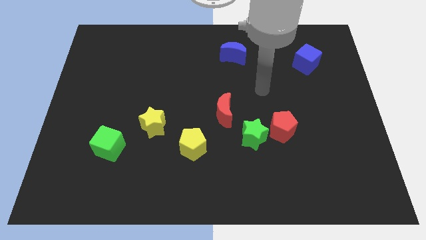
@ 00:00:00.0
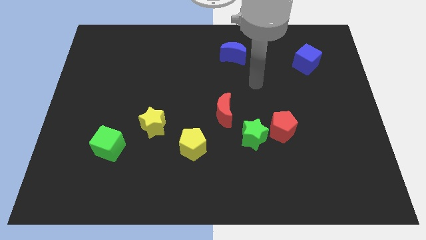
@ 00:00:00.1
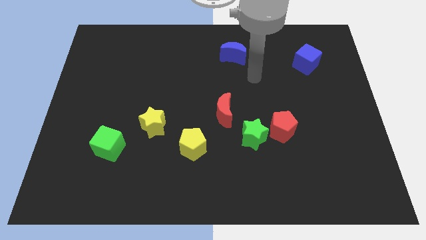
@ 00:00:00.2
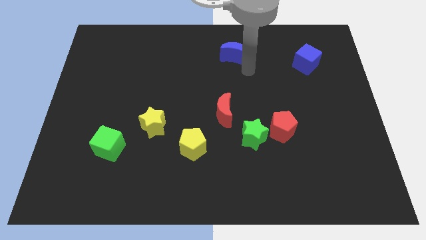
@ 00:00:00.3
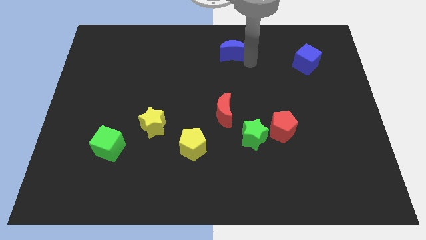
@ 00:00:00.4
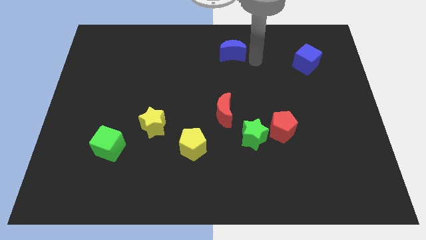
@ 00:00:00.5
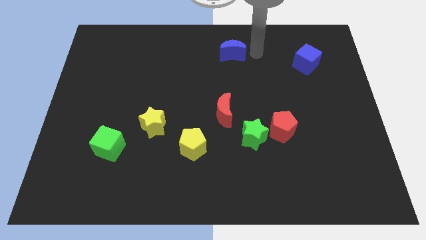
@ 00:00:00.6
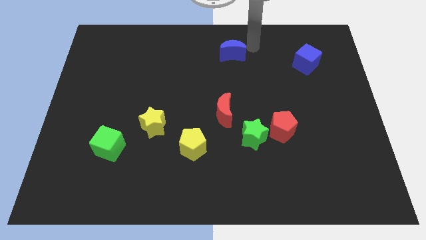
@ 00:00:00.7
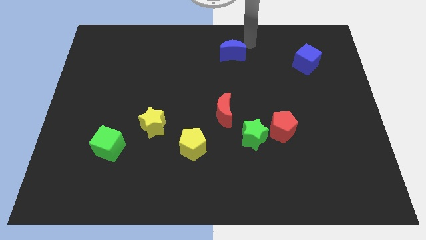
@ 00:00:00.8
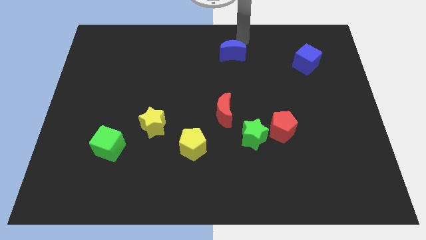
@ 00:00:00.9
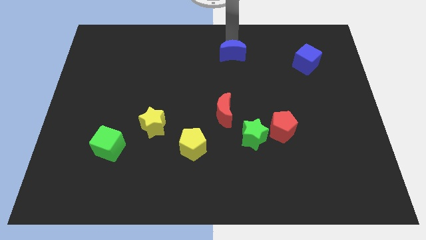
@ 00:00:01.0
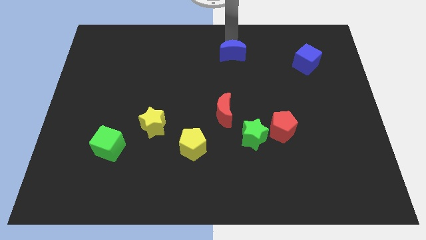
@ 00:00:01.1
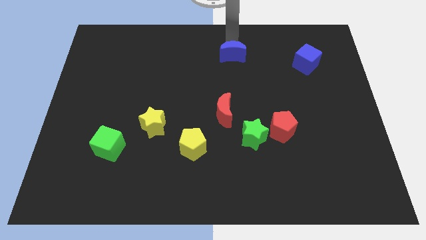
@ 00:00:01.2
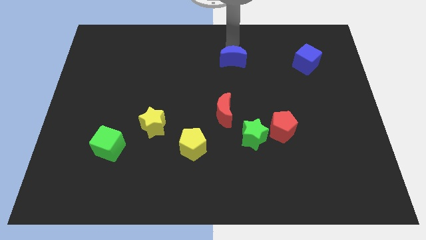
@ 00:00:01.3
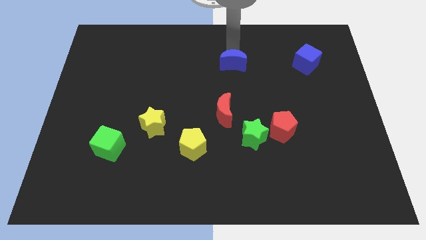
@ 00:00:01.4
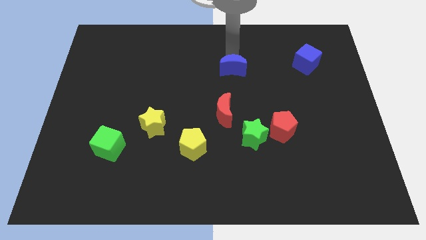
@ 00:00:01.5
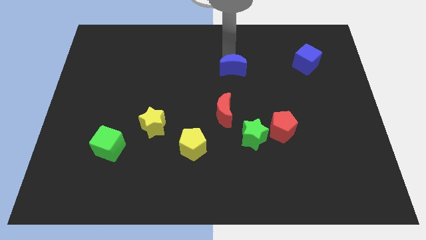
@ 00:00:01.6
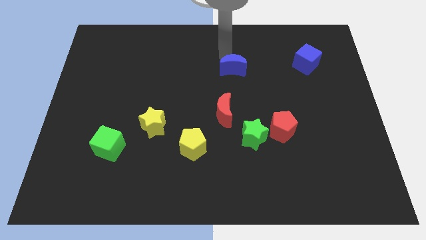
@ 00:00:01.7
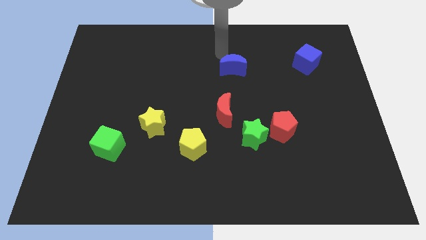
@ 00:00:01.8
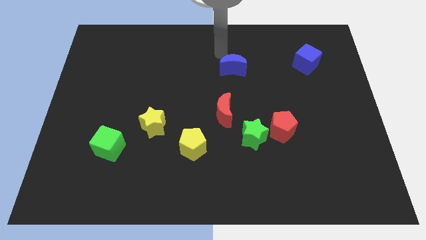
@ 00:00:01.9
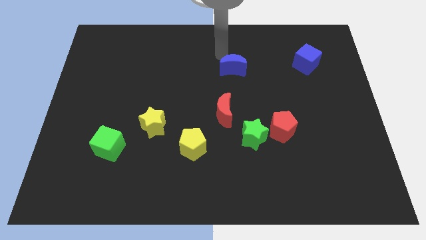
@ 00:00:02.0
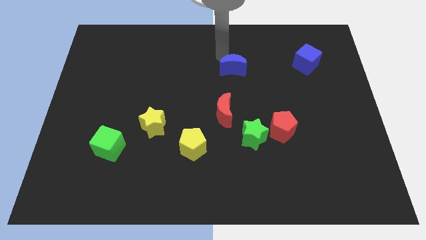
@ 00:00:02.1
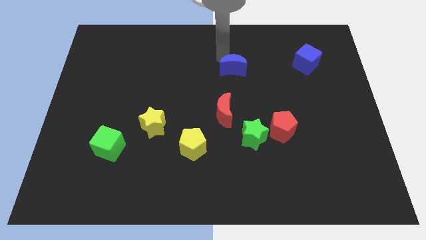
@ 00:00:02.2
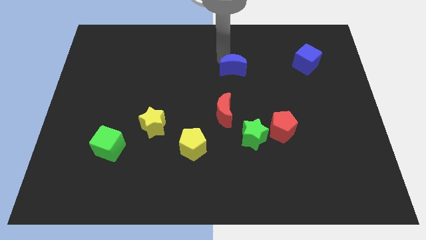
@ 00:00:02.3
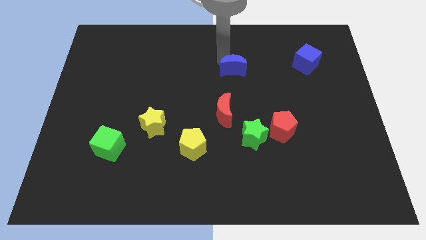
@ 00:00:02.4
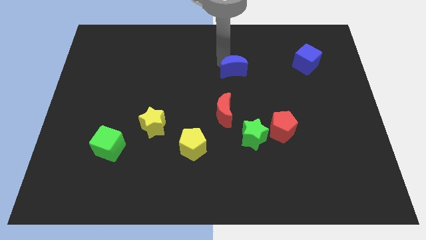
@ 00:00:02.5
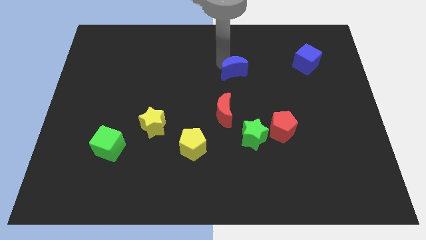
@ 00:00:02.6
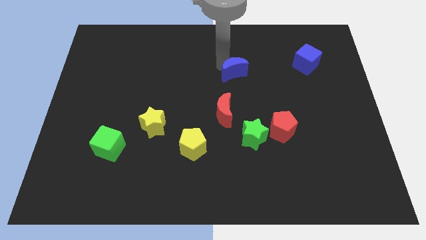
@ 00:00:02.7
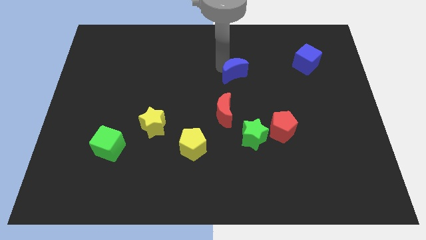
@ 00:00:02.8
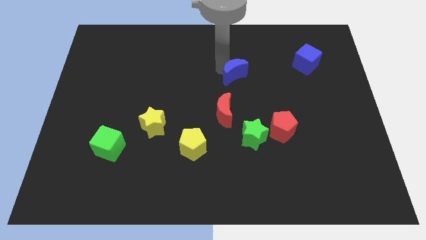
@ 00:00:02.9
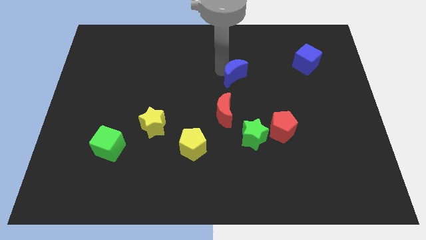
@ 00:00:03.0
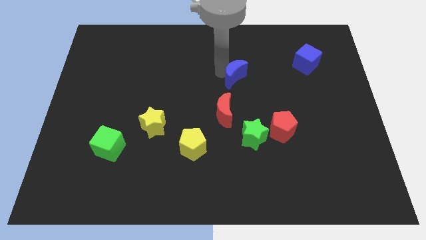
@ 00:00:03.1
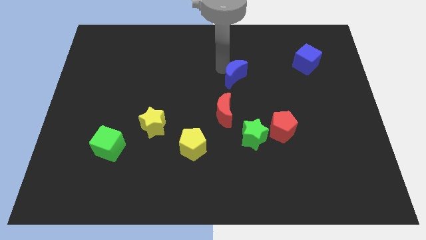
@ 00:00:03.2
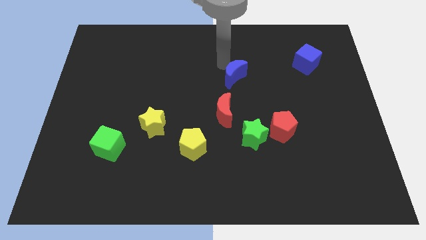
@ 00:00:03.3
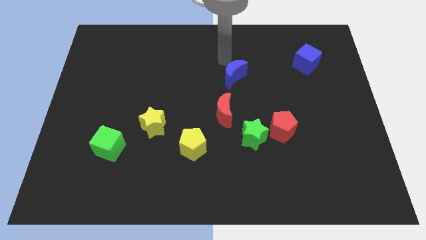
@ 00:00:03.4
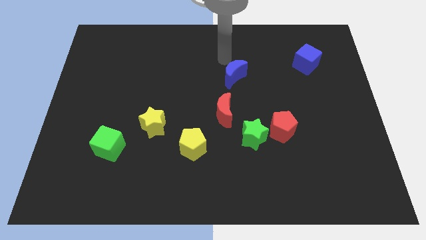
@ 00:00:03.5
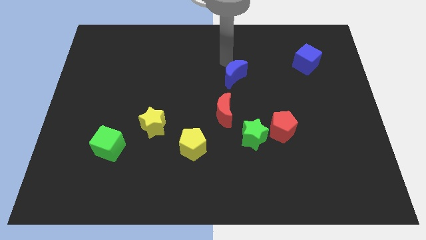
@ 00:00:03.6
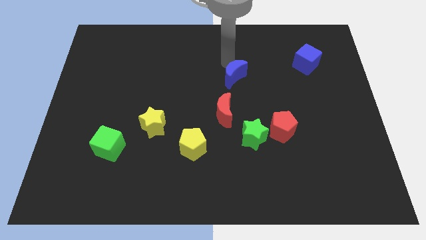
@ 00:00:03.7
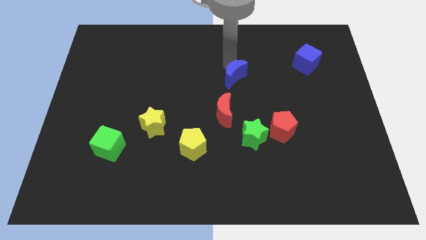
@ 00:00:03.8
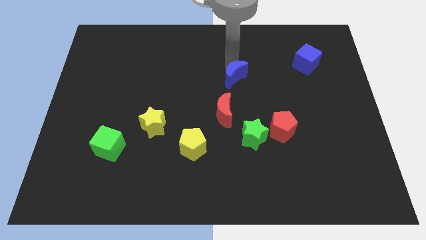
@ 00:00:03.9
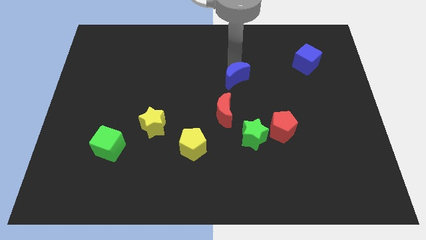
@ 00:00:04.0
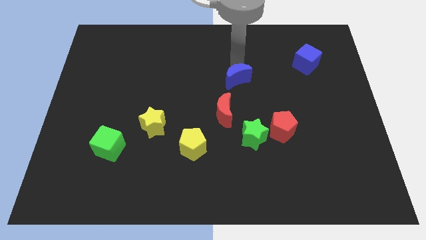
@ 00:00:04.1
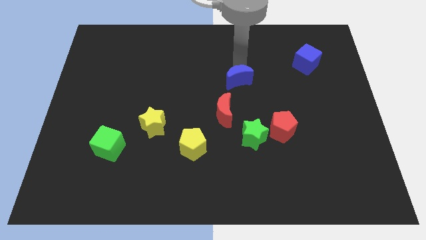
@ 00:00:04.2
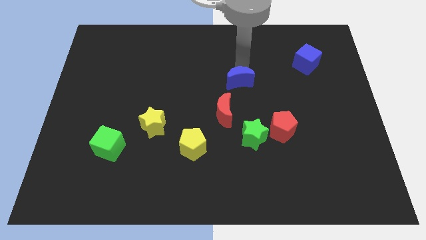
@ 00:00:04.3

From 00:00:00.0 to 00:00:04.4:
slide the blue moon diagonally up and to the right of the red moon

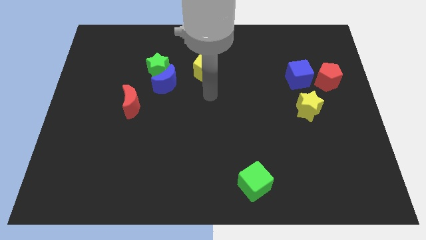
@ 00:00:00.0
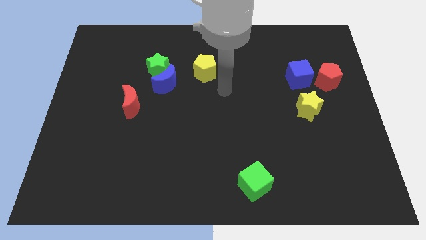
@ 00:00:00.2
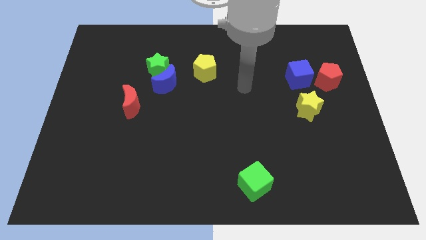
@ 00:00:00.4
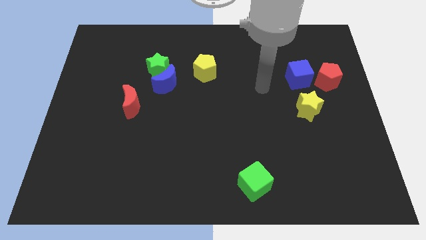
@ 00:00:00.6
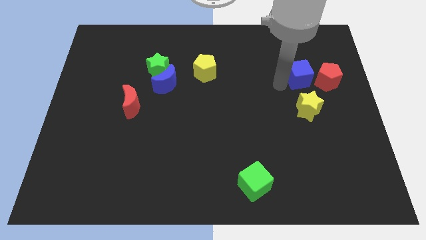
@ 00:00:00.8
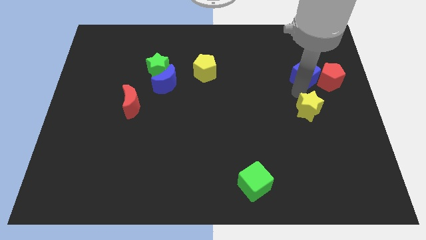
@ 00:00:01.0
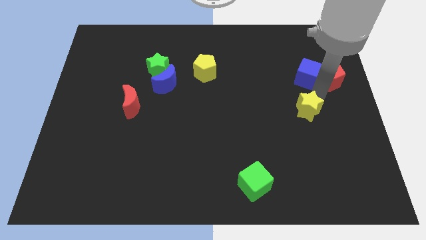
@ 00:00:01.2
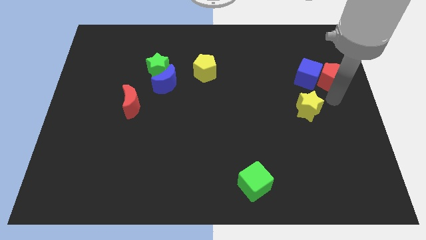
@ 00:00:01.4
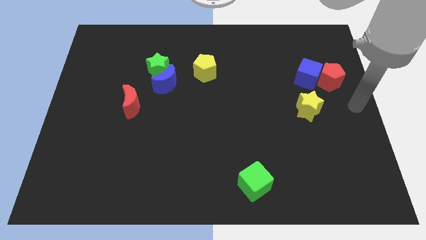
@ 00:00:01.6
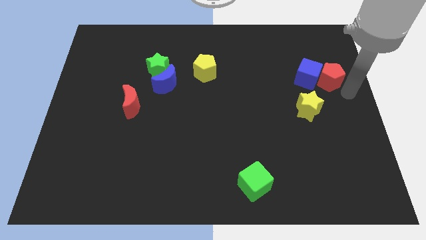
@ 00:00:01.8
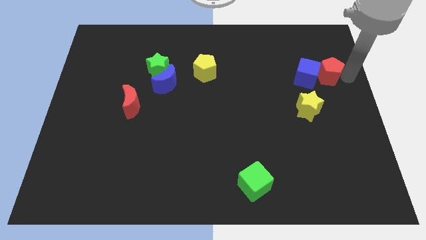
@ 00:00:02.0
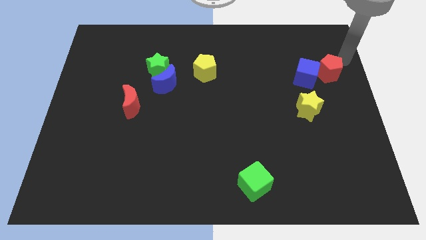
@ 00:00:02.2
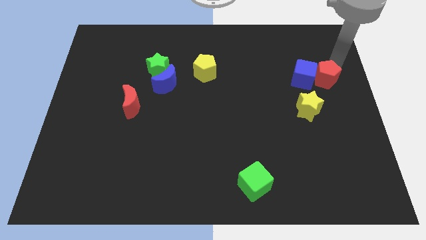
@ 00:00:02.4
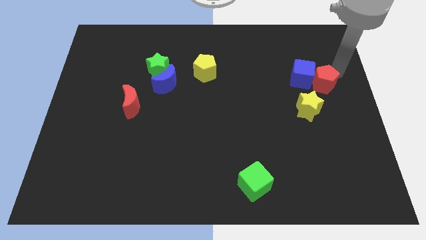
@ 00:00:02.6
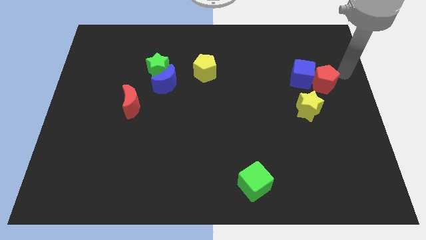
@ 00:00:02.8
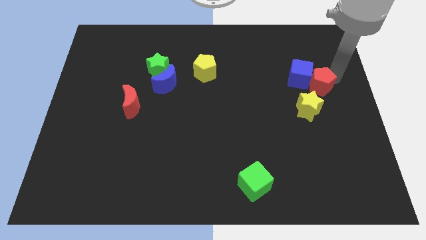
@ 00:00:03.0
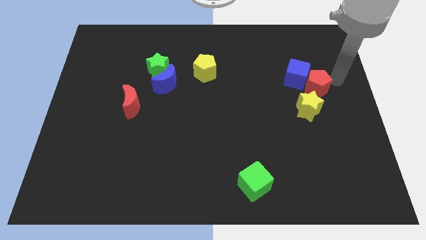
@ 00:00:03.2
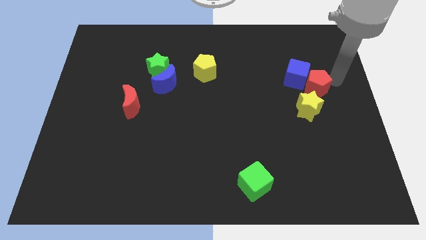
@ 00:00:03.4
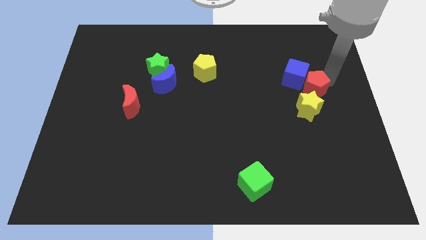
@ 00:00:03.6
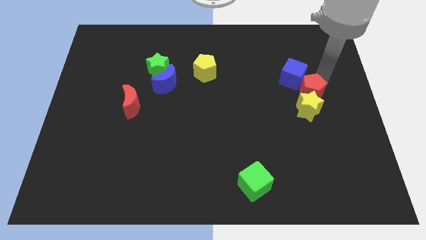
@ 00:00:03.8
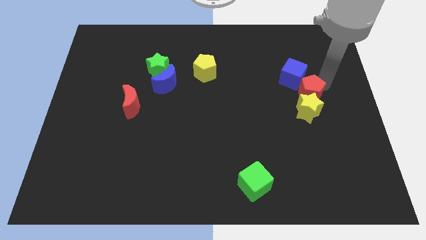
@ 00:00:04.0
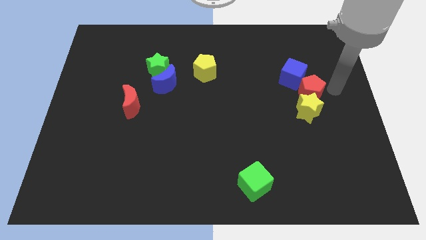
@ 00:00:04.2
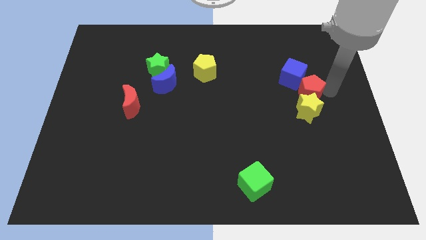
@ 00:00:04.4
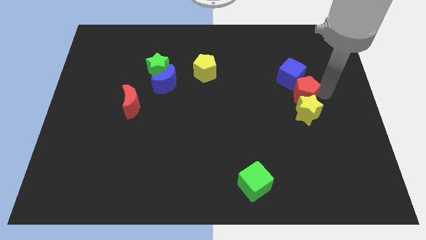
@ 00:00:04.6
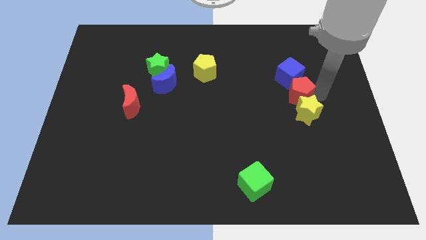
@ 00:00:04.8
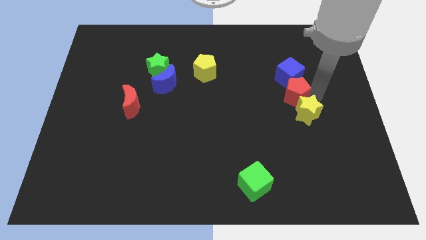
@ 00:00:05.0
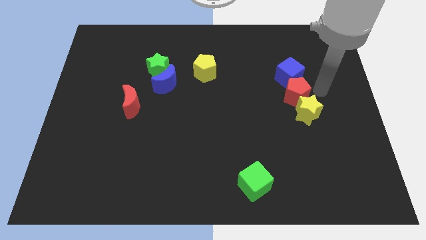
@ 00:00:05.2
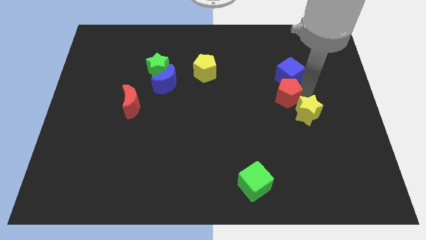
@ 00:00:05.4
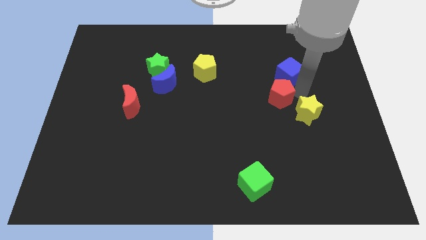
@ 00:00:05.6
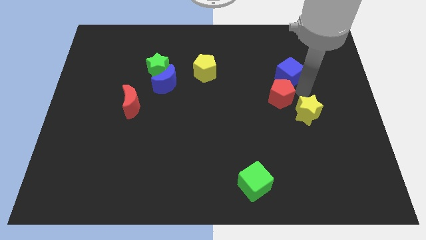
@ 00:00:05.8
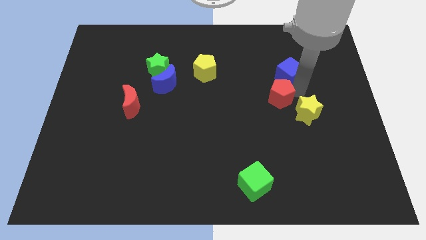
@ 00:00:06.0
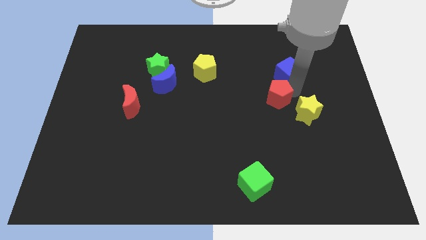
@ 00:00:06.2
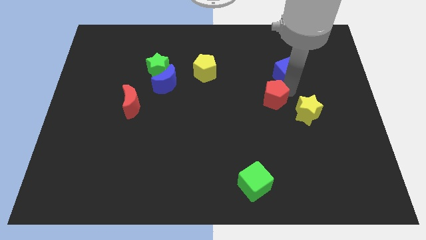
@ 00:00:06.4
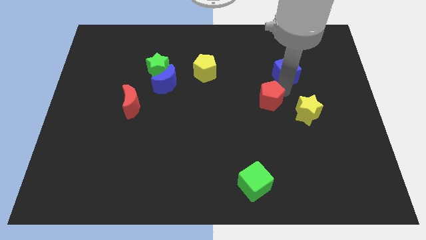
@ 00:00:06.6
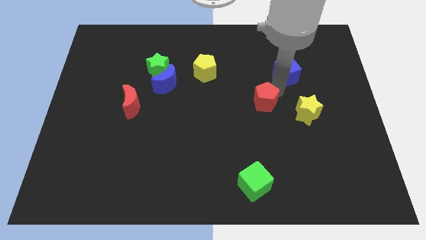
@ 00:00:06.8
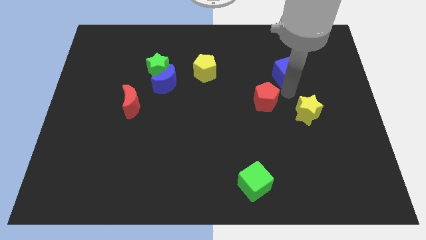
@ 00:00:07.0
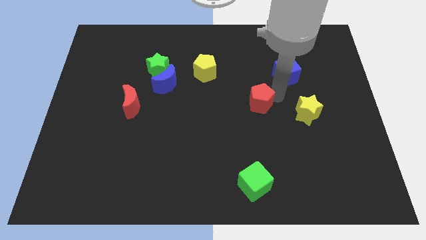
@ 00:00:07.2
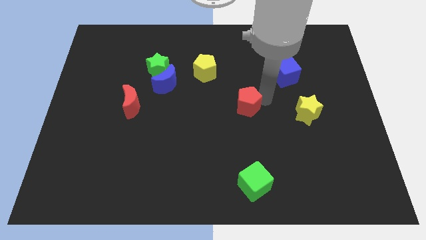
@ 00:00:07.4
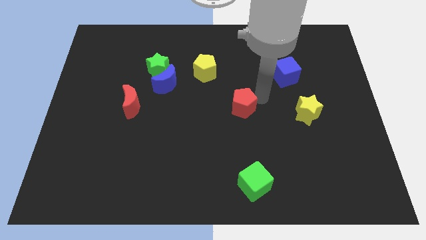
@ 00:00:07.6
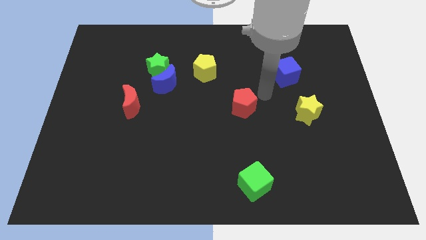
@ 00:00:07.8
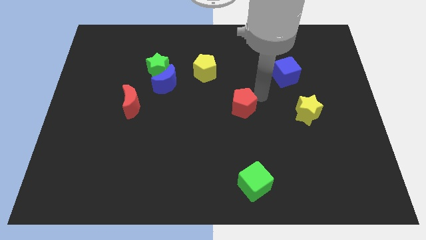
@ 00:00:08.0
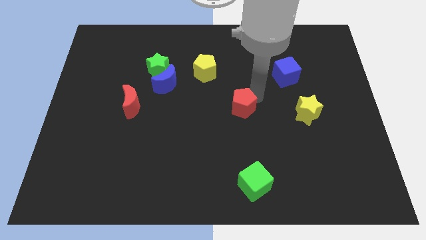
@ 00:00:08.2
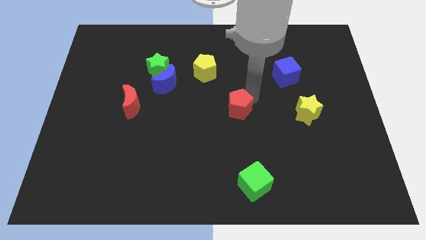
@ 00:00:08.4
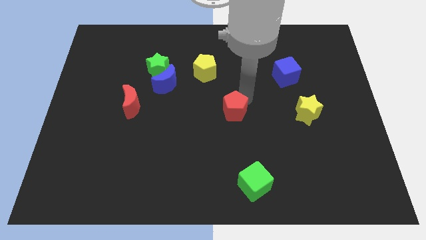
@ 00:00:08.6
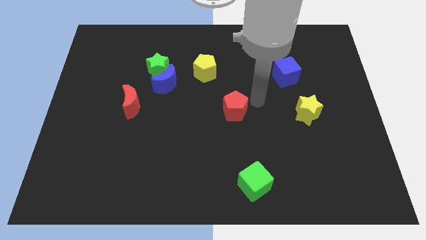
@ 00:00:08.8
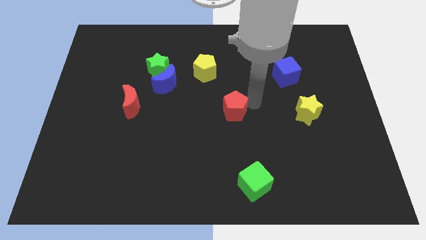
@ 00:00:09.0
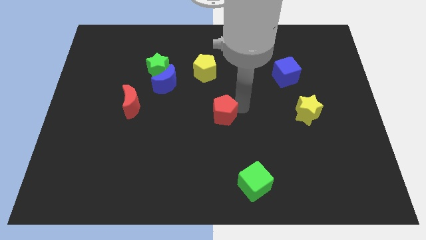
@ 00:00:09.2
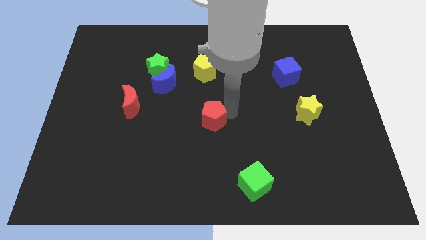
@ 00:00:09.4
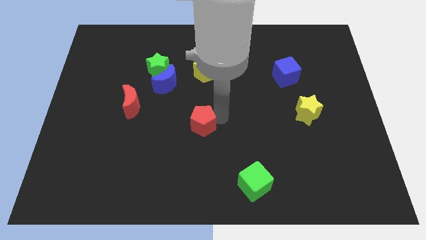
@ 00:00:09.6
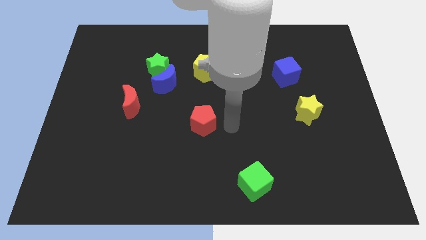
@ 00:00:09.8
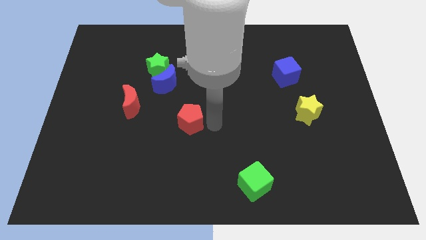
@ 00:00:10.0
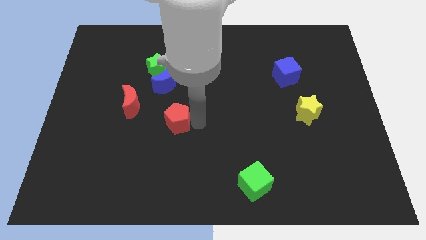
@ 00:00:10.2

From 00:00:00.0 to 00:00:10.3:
put the red pentagon to the bottom side of the blue moon
